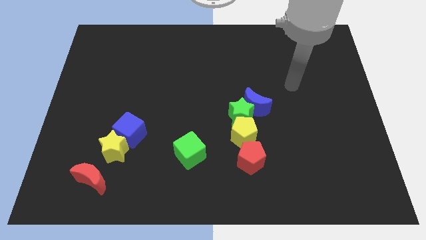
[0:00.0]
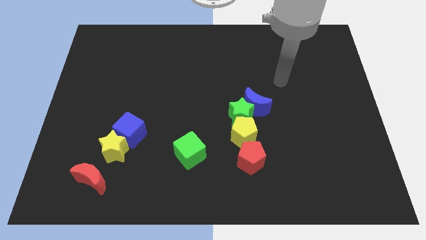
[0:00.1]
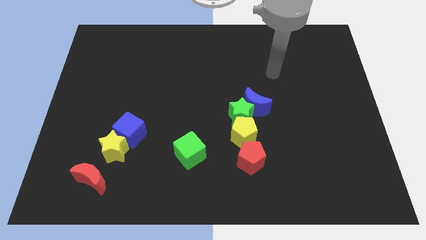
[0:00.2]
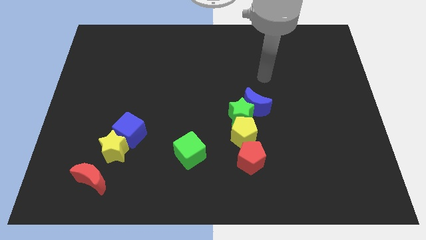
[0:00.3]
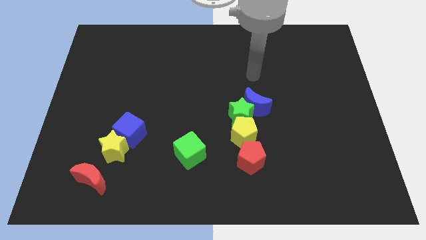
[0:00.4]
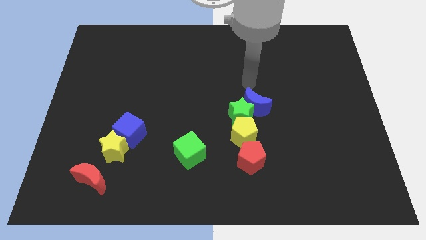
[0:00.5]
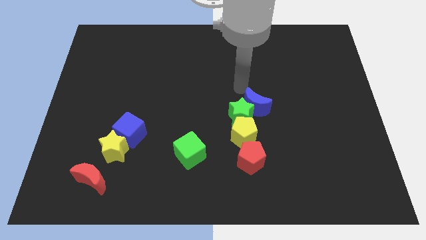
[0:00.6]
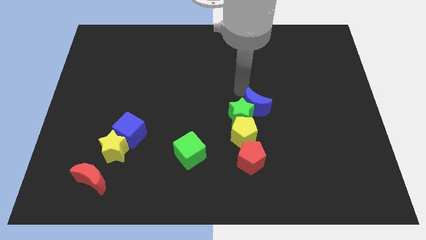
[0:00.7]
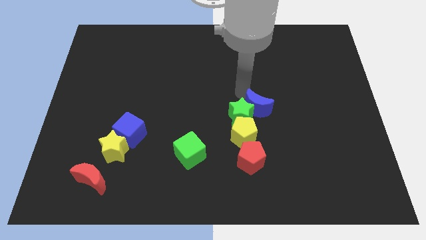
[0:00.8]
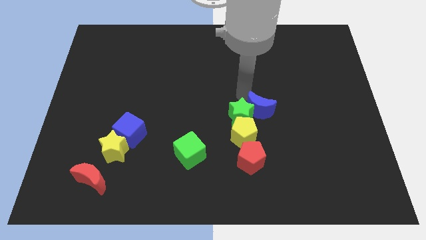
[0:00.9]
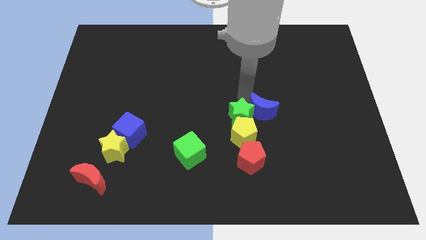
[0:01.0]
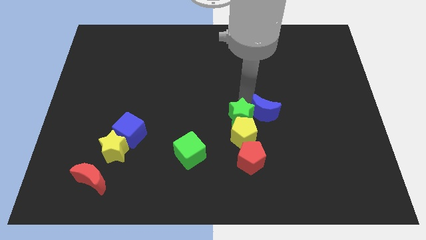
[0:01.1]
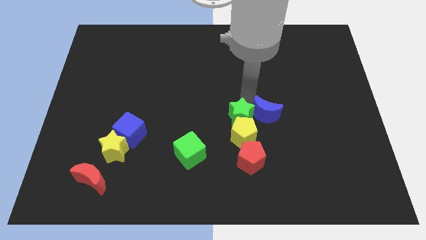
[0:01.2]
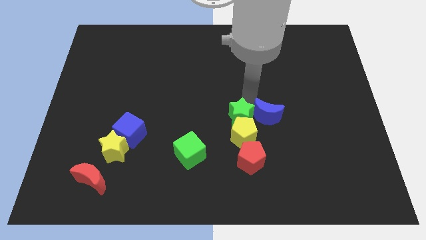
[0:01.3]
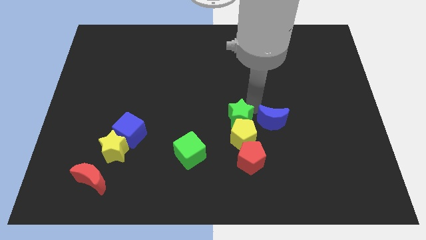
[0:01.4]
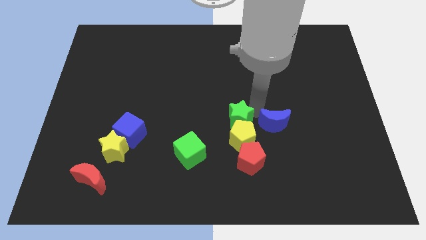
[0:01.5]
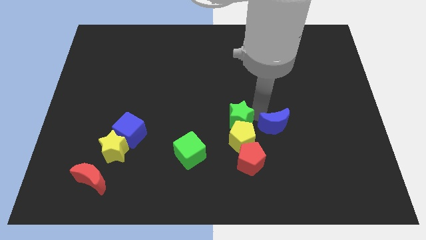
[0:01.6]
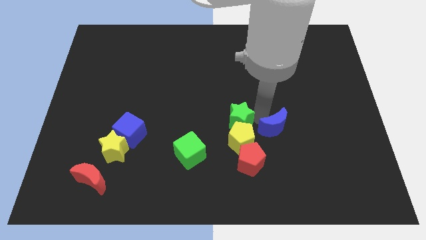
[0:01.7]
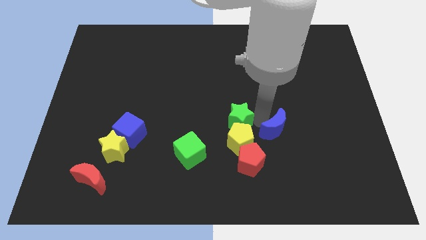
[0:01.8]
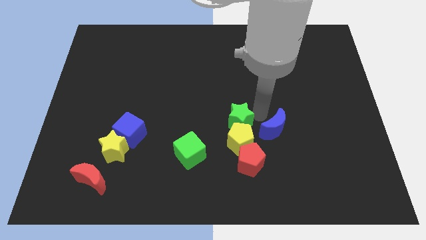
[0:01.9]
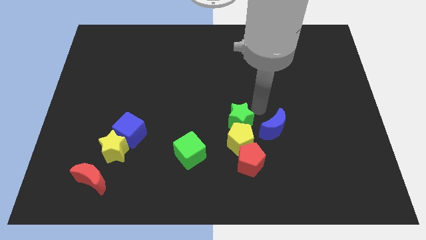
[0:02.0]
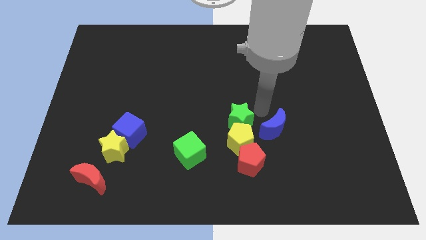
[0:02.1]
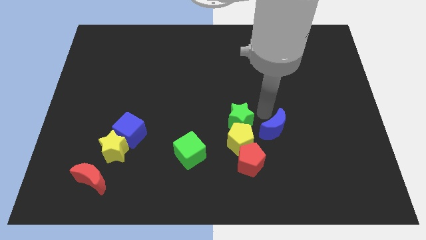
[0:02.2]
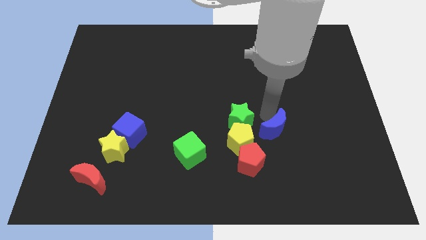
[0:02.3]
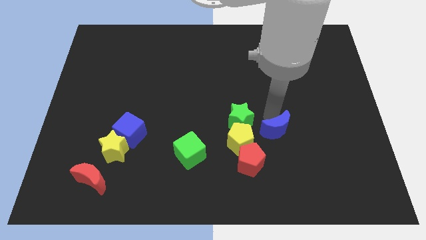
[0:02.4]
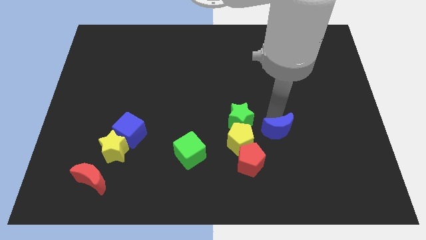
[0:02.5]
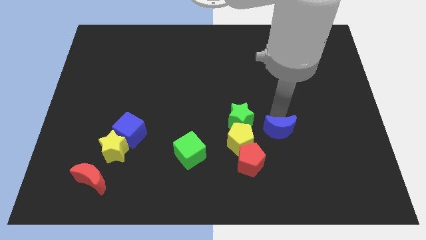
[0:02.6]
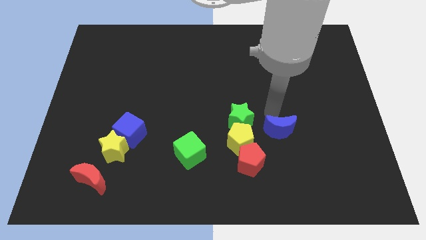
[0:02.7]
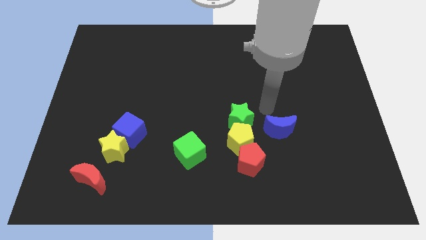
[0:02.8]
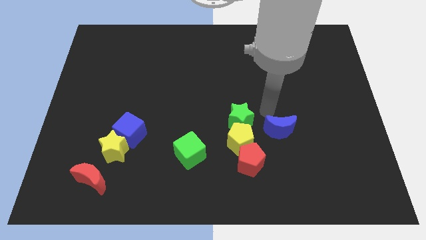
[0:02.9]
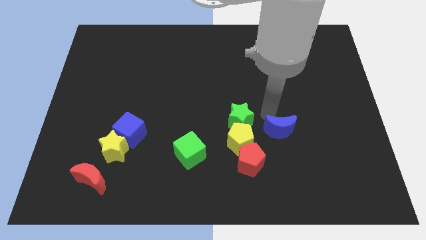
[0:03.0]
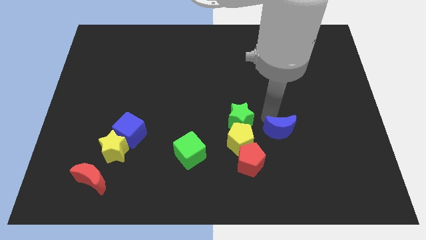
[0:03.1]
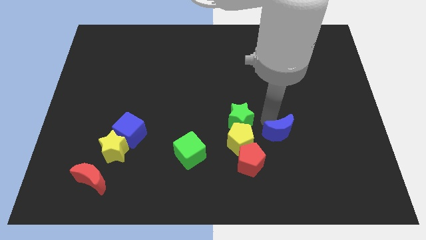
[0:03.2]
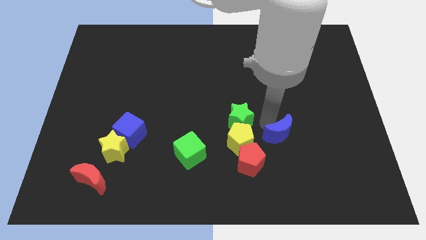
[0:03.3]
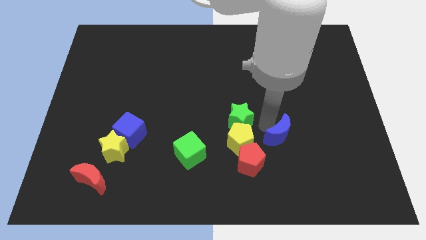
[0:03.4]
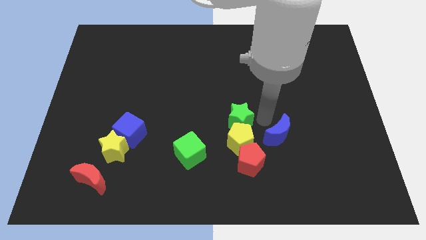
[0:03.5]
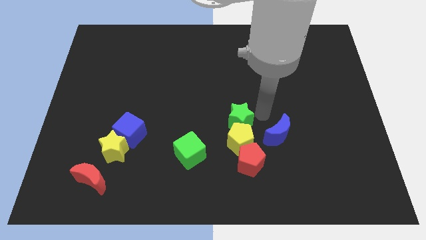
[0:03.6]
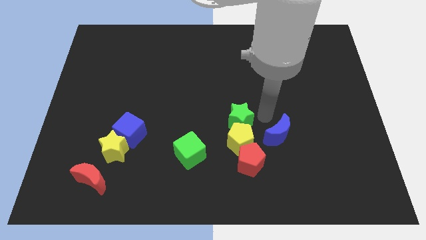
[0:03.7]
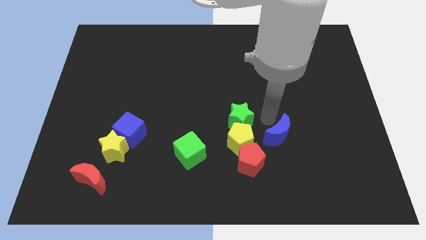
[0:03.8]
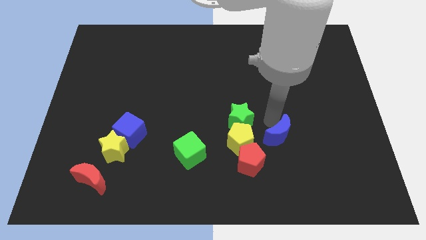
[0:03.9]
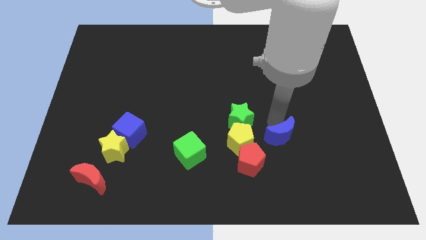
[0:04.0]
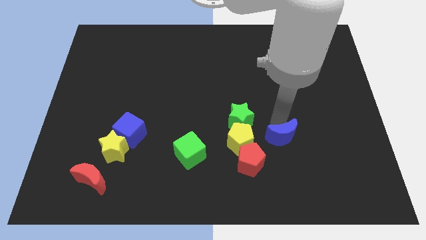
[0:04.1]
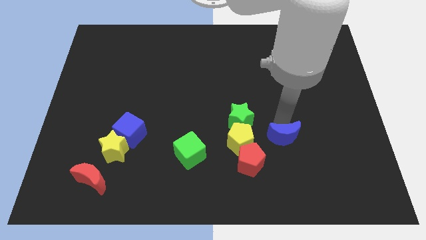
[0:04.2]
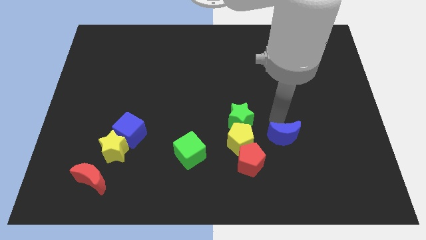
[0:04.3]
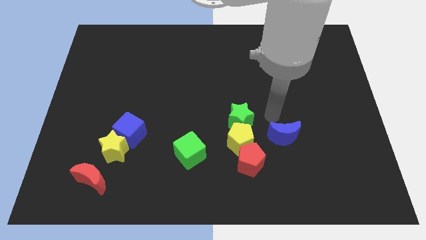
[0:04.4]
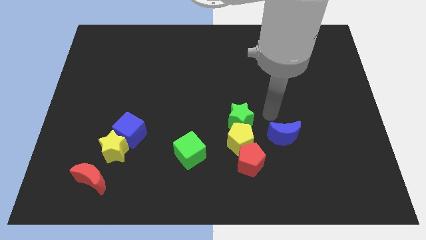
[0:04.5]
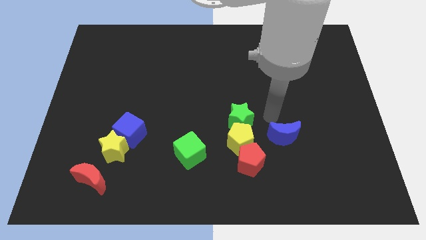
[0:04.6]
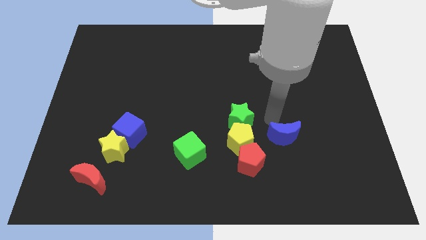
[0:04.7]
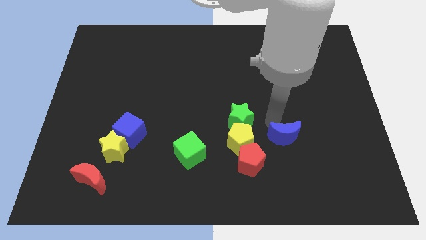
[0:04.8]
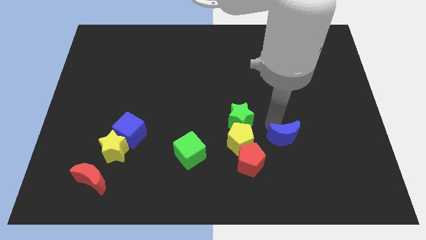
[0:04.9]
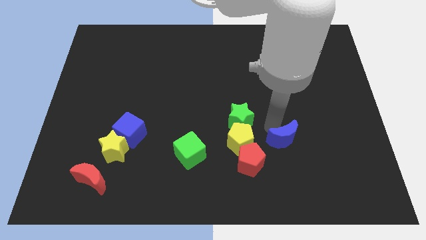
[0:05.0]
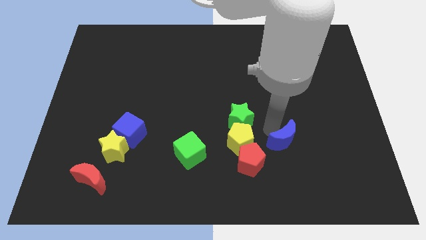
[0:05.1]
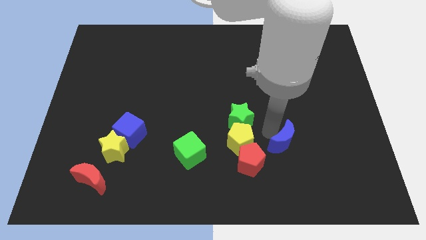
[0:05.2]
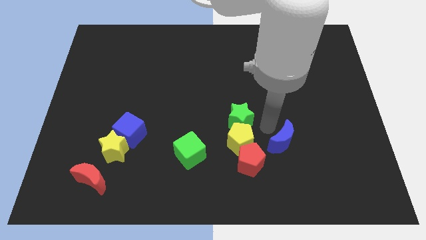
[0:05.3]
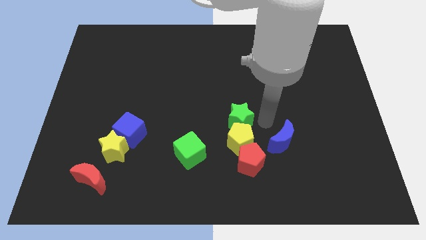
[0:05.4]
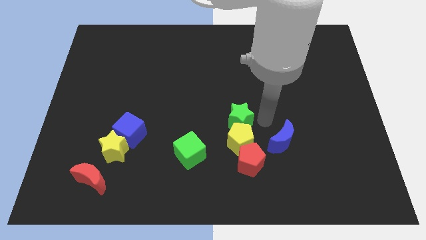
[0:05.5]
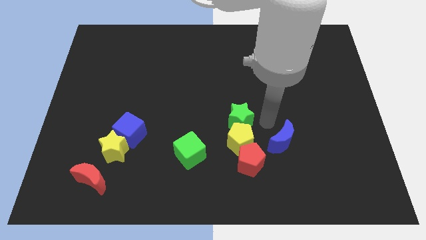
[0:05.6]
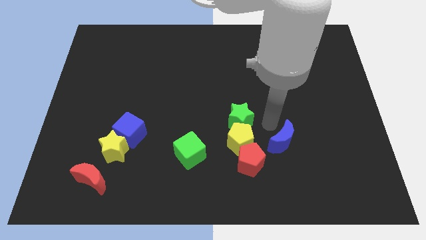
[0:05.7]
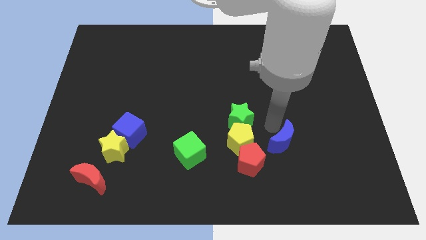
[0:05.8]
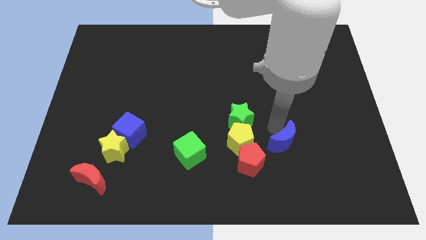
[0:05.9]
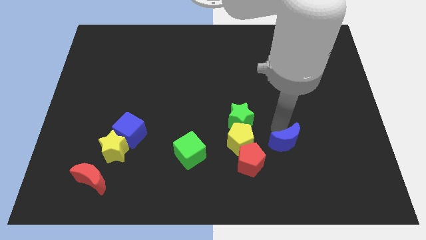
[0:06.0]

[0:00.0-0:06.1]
move the blue moon just right of the red pentagon

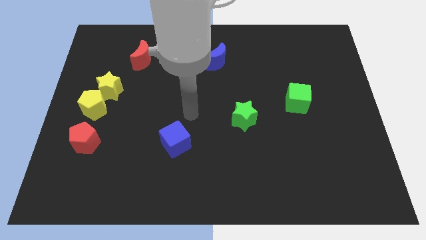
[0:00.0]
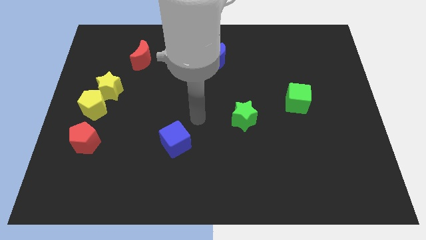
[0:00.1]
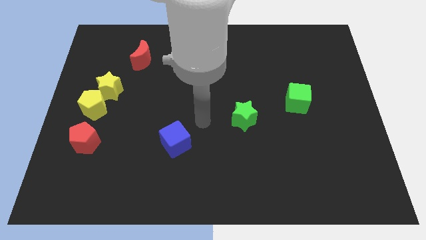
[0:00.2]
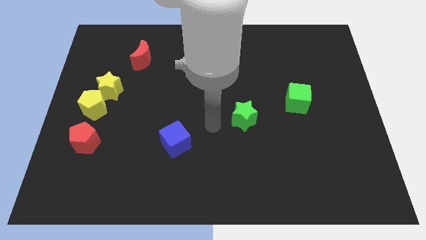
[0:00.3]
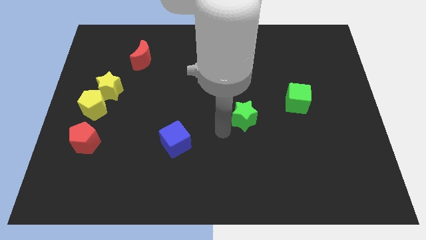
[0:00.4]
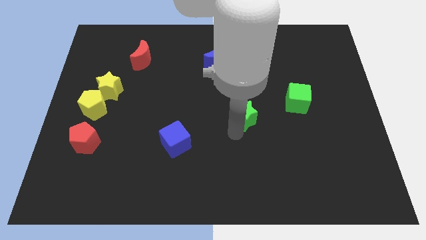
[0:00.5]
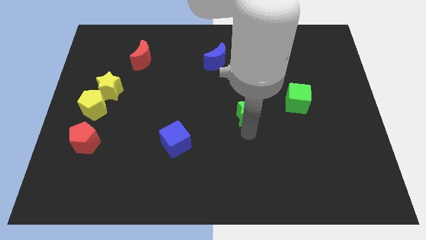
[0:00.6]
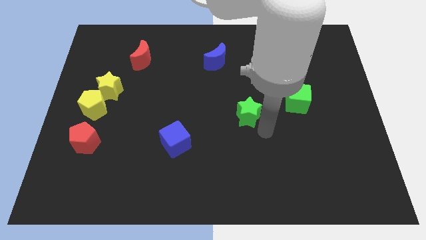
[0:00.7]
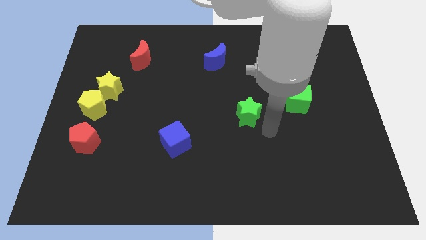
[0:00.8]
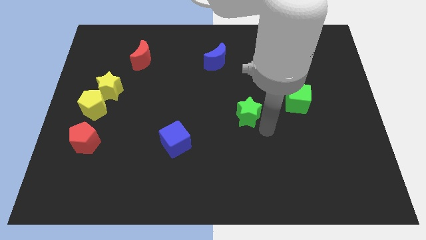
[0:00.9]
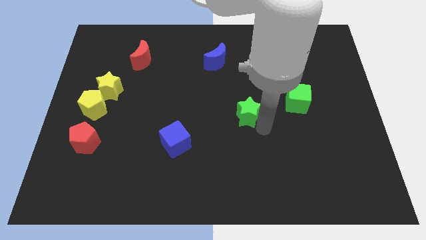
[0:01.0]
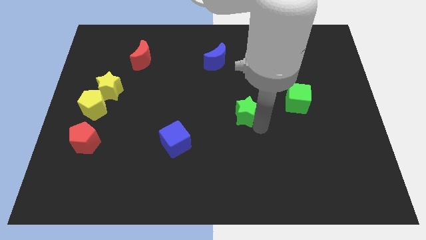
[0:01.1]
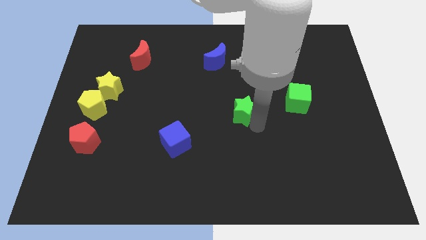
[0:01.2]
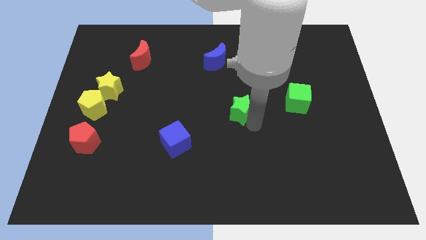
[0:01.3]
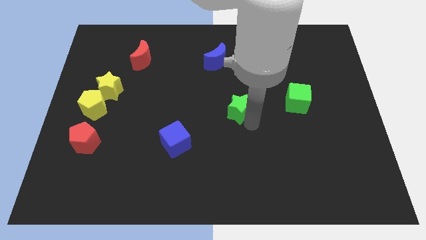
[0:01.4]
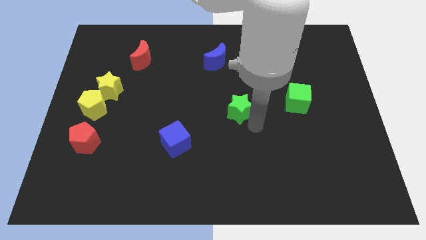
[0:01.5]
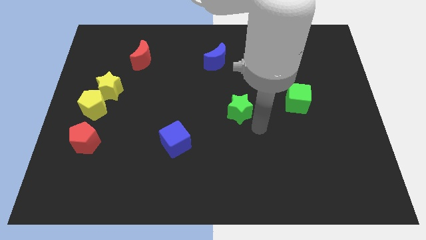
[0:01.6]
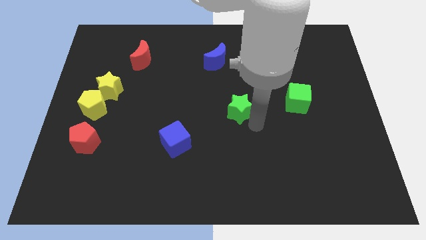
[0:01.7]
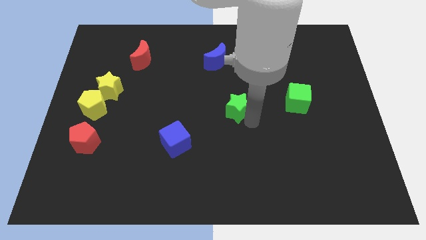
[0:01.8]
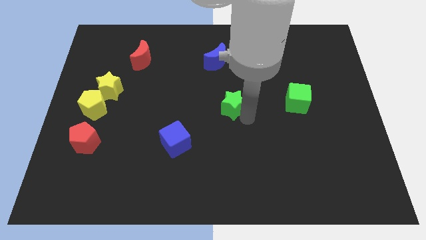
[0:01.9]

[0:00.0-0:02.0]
move the green star below the blue moon
